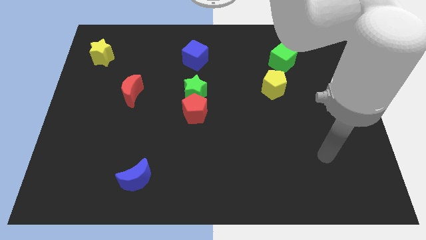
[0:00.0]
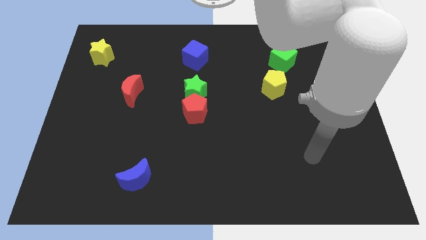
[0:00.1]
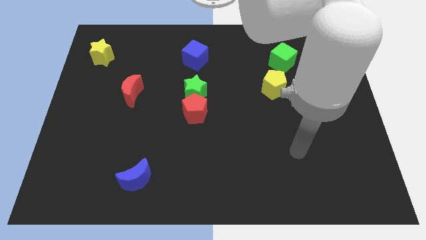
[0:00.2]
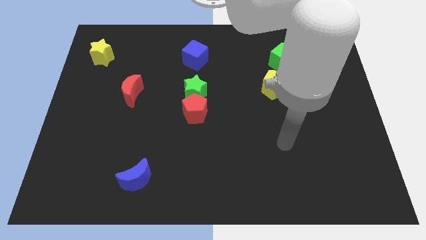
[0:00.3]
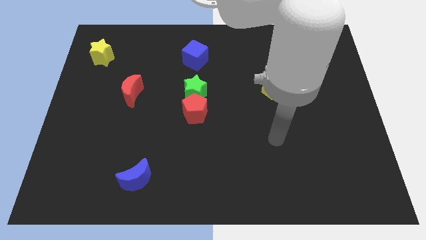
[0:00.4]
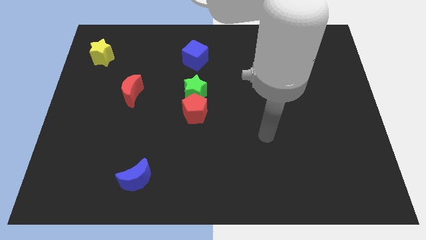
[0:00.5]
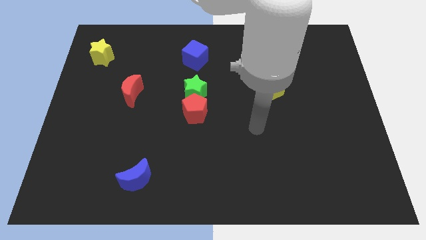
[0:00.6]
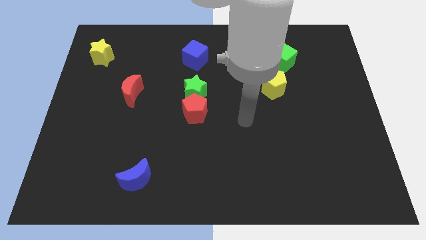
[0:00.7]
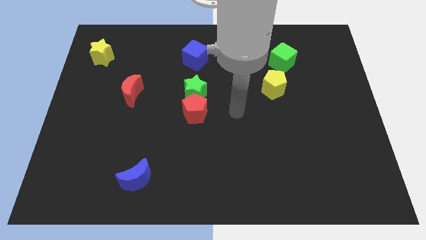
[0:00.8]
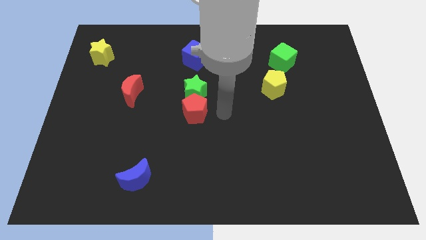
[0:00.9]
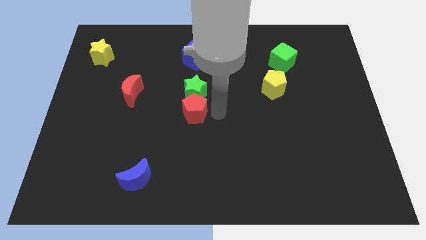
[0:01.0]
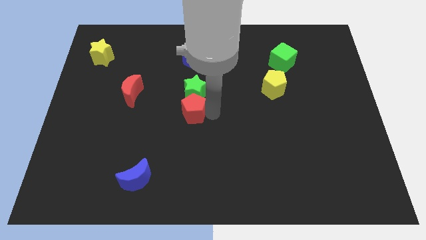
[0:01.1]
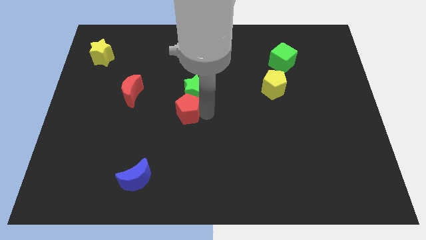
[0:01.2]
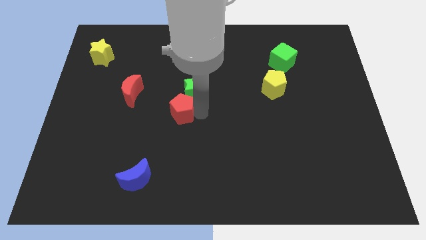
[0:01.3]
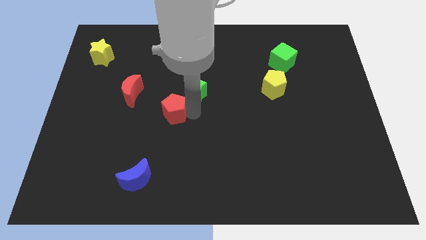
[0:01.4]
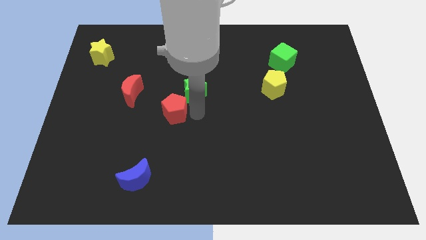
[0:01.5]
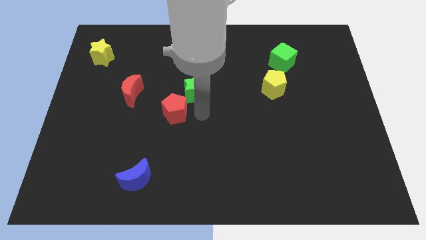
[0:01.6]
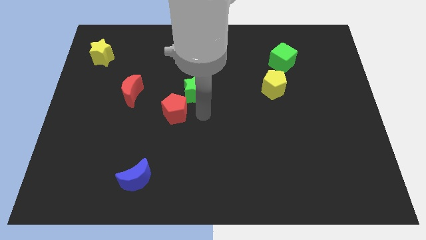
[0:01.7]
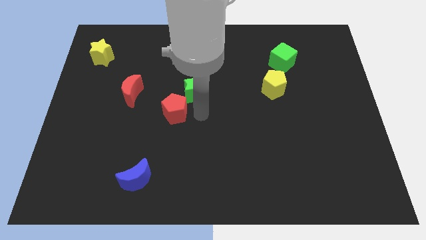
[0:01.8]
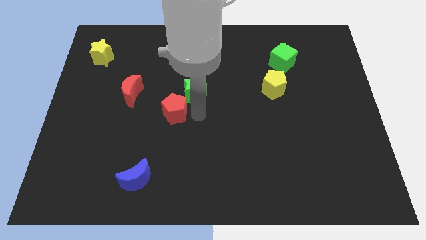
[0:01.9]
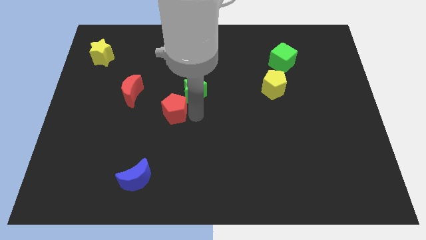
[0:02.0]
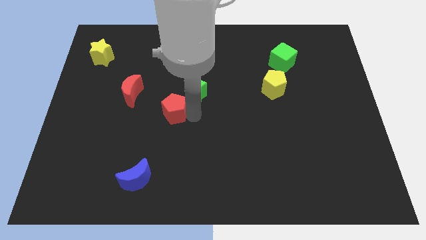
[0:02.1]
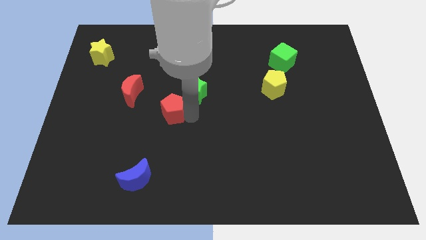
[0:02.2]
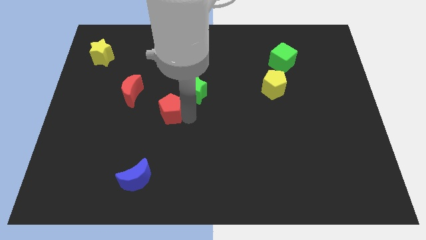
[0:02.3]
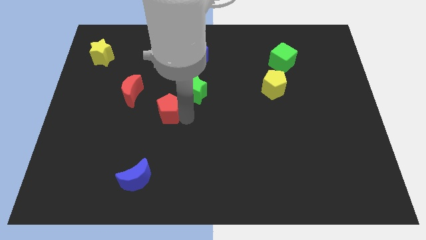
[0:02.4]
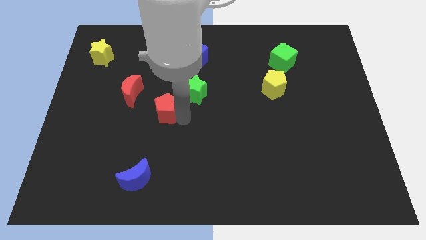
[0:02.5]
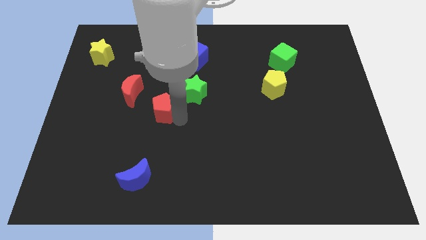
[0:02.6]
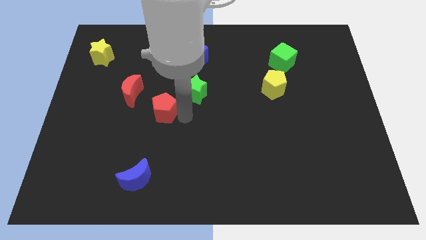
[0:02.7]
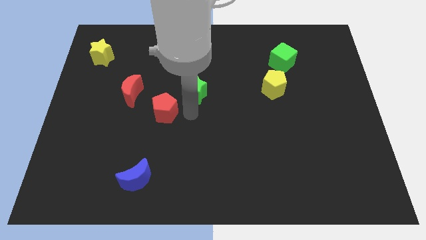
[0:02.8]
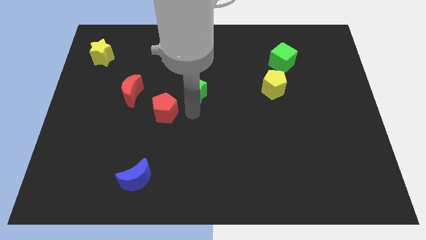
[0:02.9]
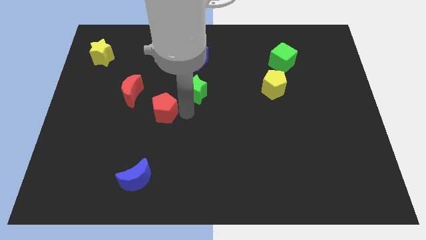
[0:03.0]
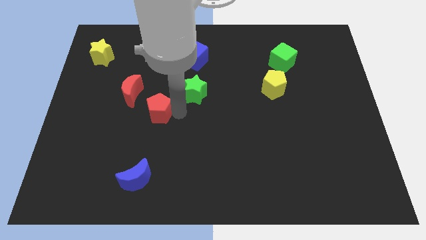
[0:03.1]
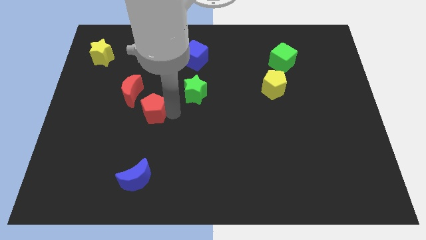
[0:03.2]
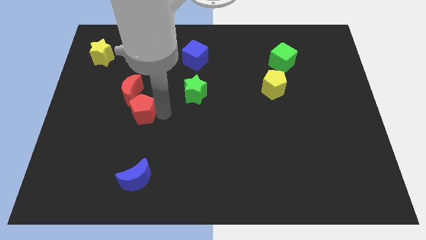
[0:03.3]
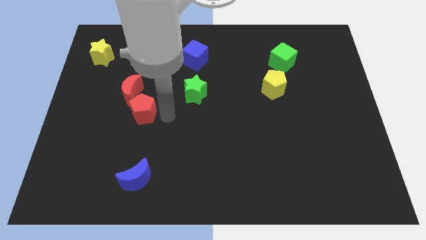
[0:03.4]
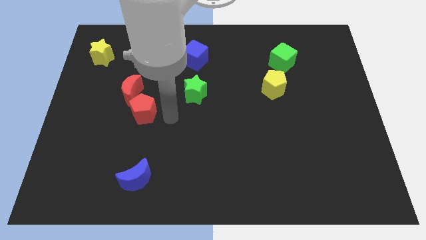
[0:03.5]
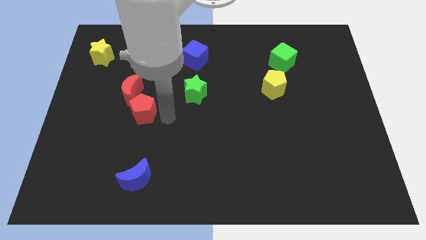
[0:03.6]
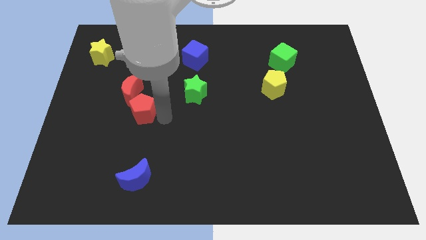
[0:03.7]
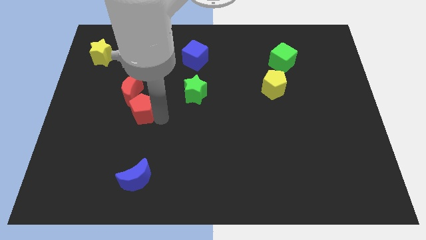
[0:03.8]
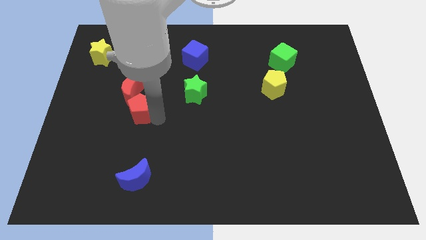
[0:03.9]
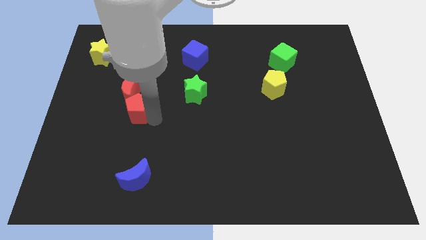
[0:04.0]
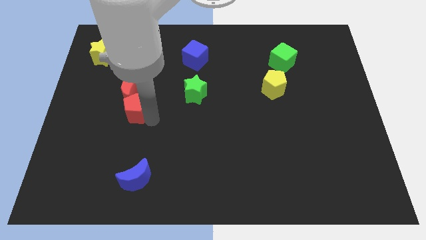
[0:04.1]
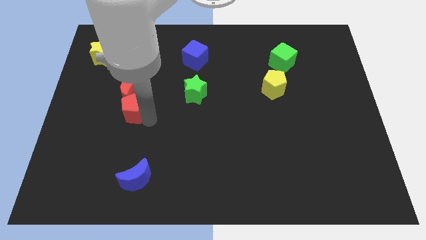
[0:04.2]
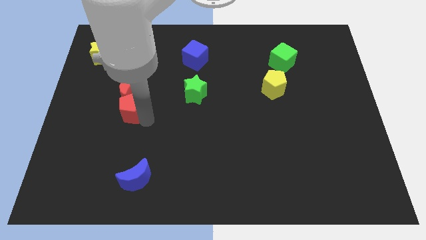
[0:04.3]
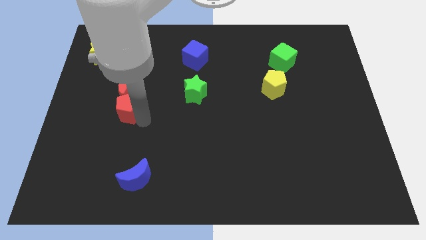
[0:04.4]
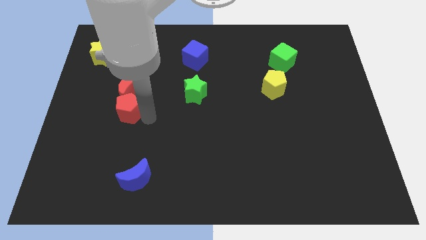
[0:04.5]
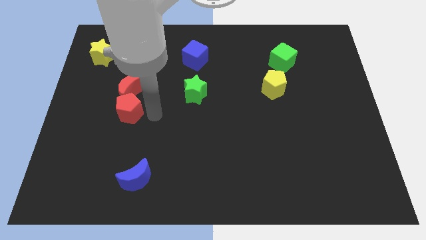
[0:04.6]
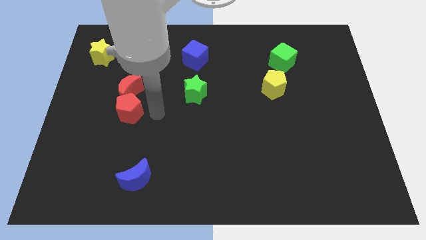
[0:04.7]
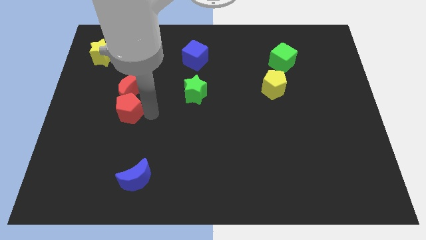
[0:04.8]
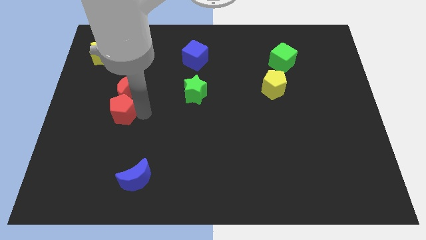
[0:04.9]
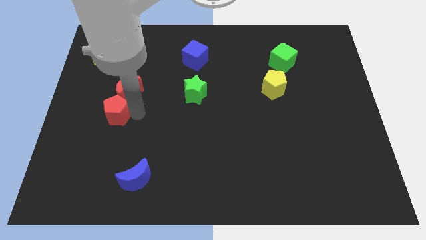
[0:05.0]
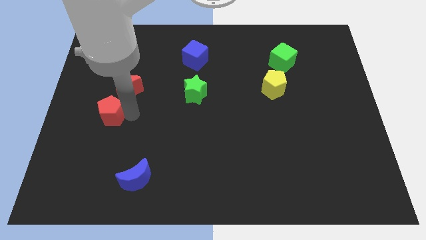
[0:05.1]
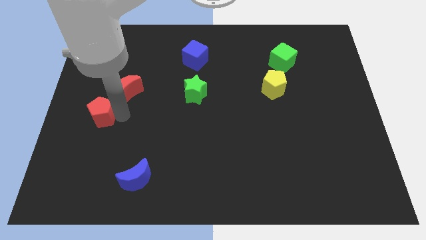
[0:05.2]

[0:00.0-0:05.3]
slide the red pentagon to the left side

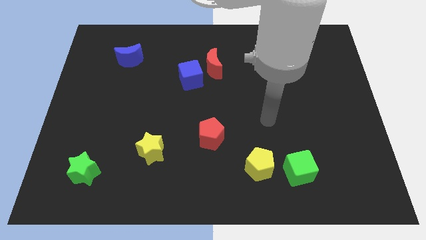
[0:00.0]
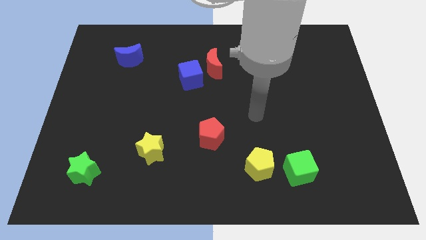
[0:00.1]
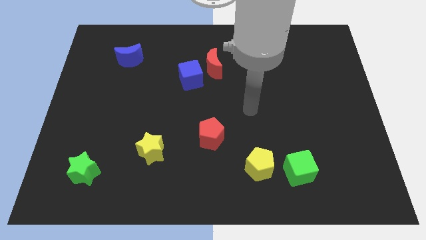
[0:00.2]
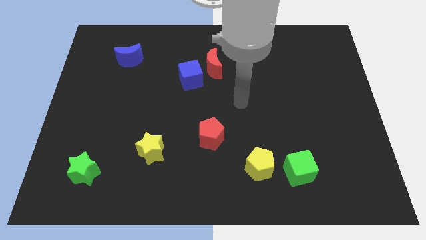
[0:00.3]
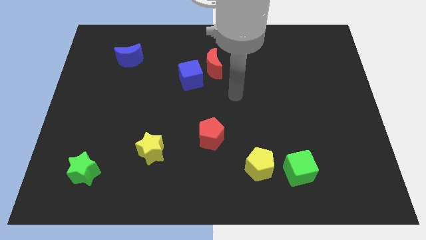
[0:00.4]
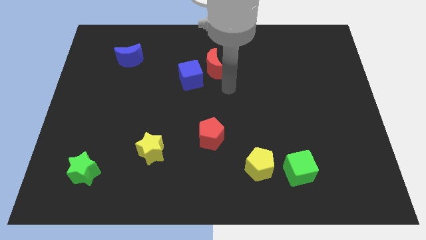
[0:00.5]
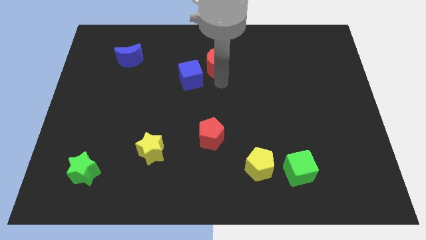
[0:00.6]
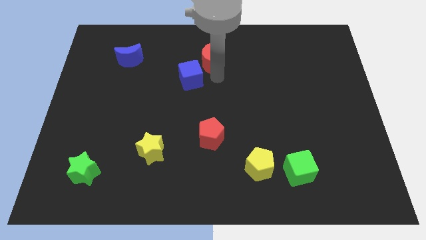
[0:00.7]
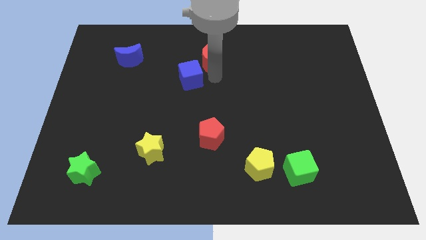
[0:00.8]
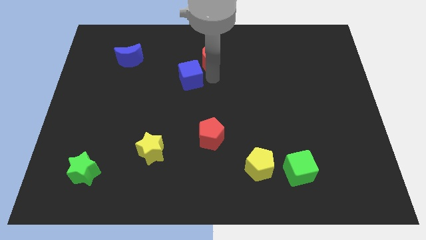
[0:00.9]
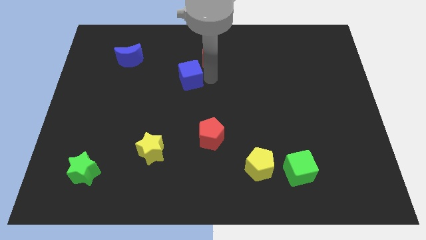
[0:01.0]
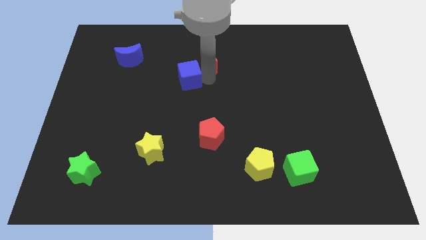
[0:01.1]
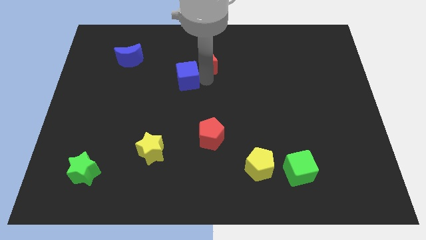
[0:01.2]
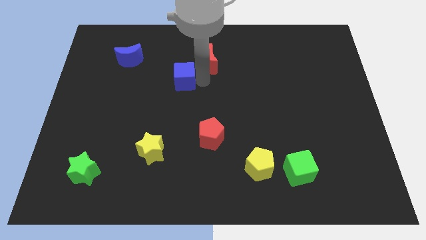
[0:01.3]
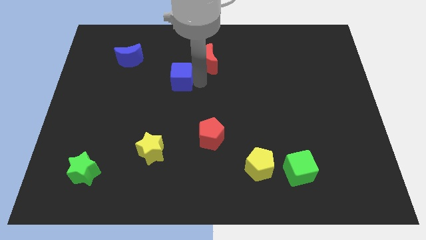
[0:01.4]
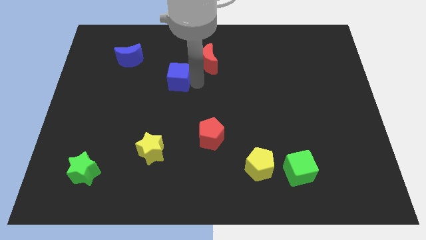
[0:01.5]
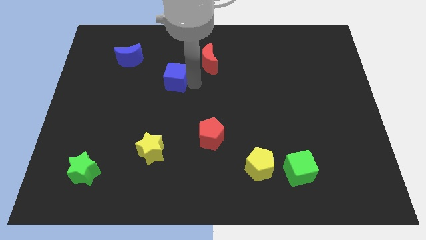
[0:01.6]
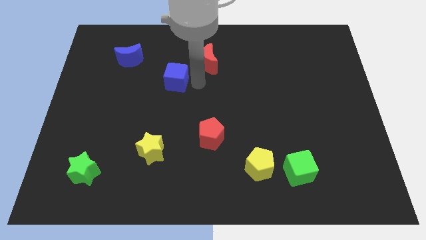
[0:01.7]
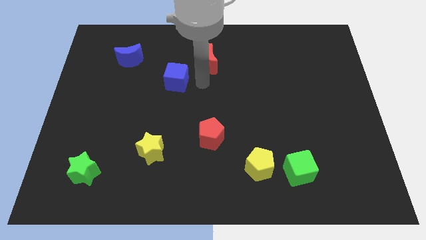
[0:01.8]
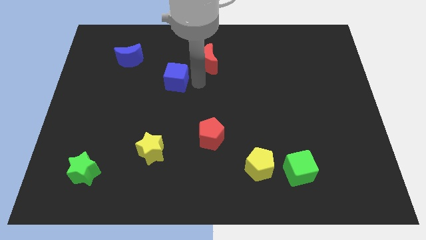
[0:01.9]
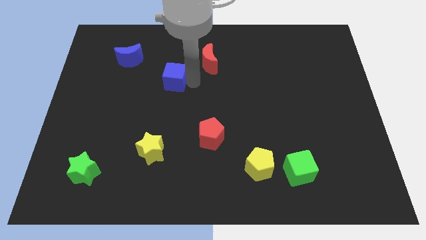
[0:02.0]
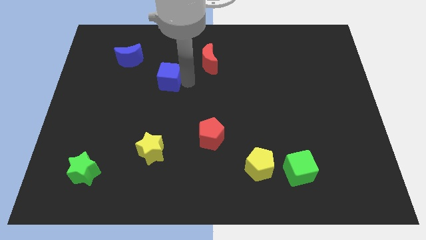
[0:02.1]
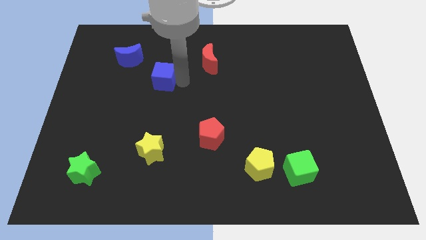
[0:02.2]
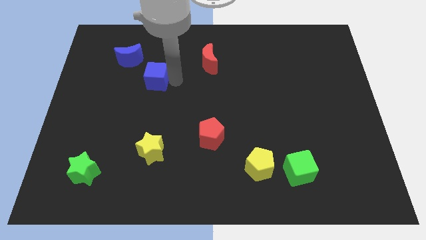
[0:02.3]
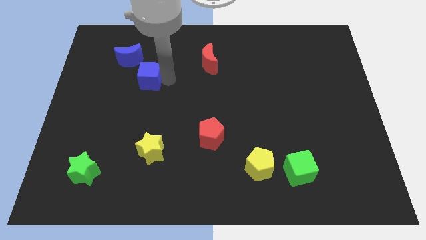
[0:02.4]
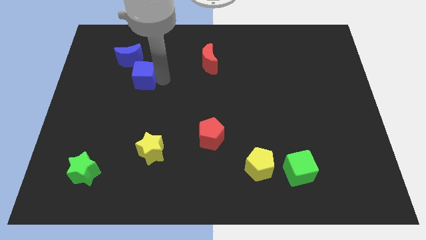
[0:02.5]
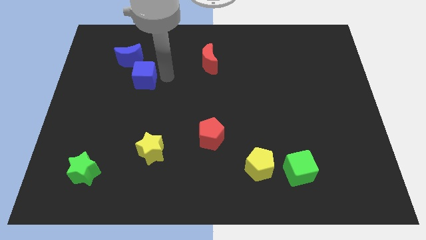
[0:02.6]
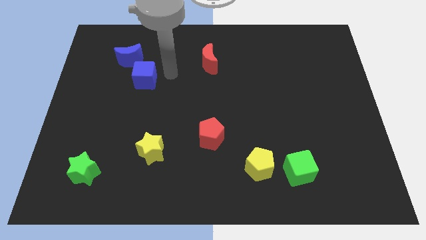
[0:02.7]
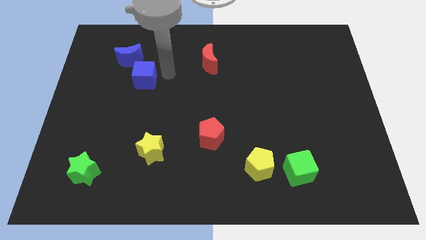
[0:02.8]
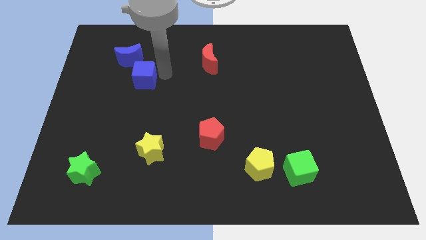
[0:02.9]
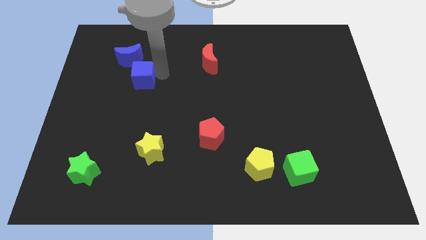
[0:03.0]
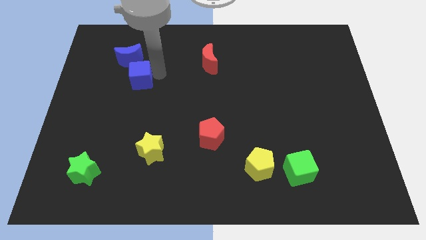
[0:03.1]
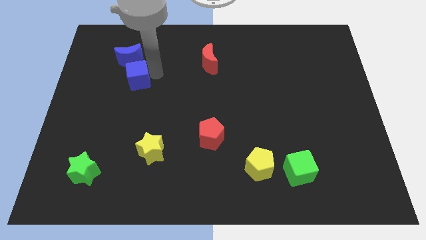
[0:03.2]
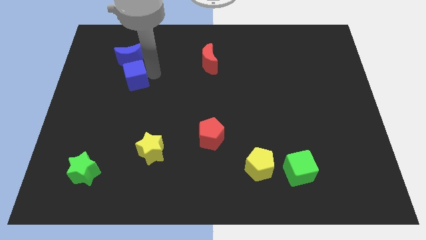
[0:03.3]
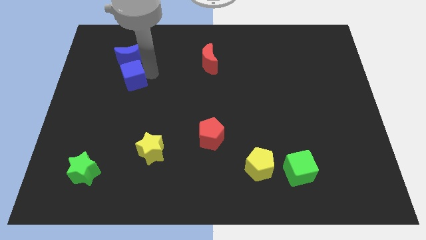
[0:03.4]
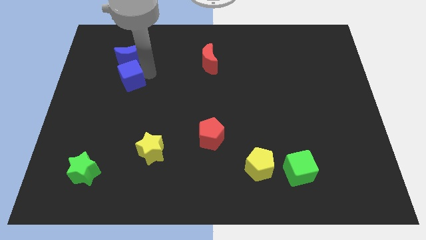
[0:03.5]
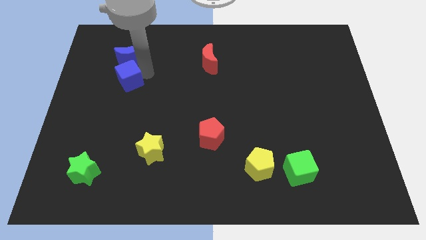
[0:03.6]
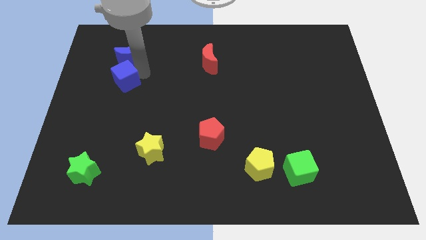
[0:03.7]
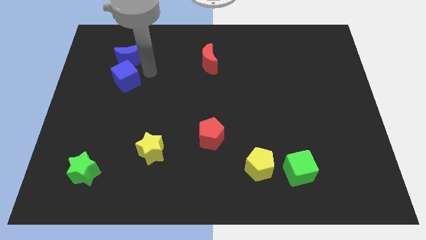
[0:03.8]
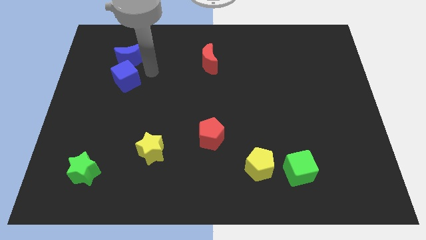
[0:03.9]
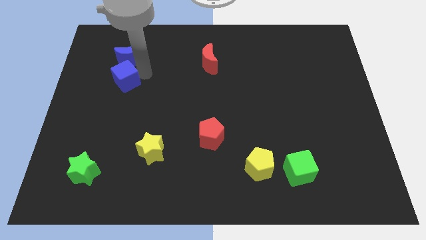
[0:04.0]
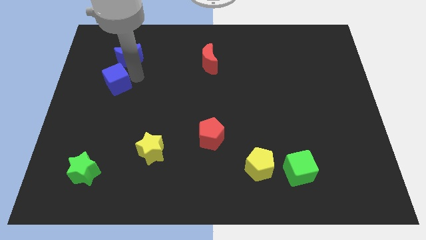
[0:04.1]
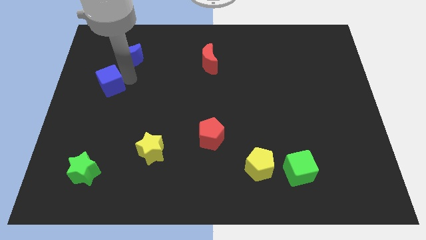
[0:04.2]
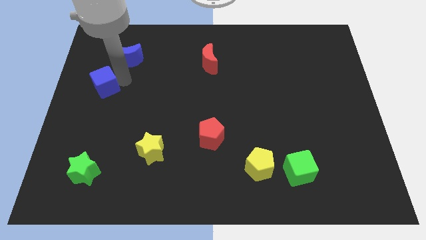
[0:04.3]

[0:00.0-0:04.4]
slide the blue cube to the center left
